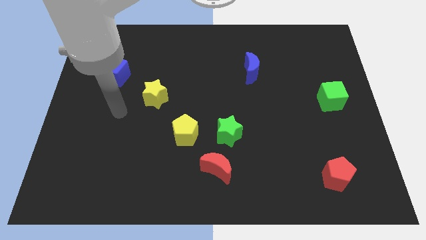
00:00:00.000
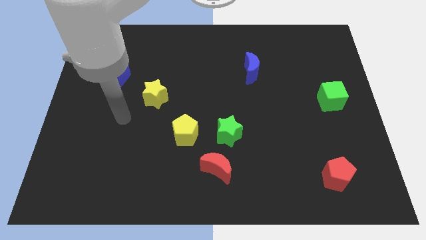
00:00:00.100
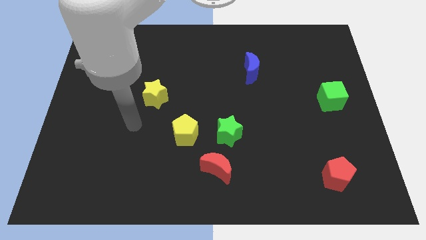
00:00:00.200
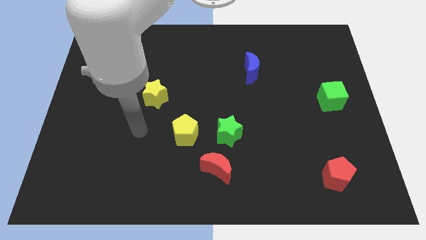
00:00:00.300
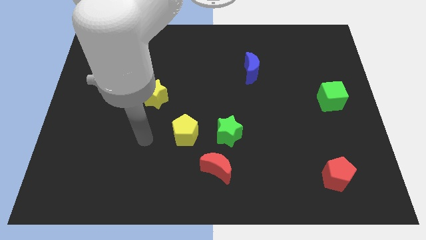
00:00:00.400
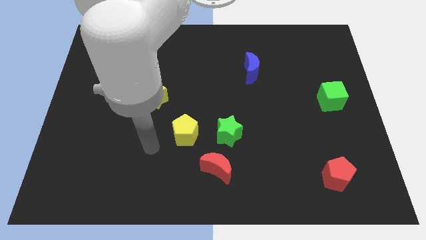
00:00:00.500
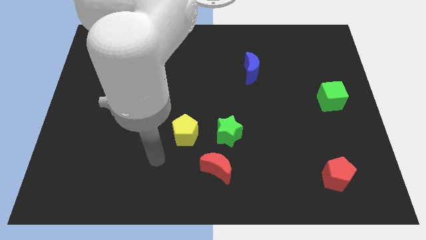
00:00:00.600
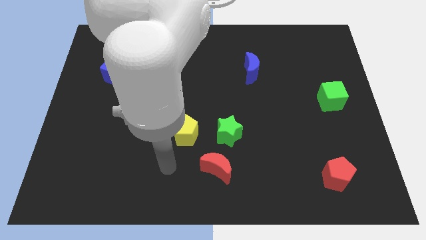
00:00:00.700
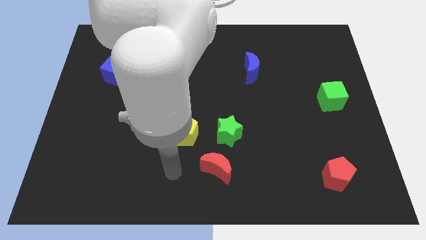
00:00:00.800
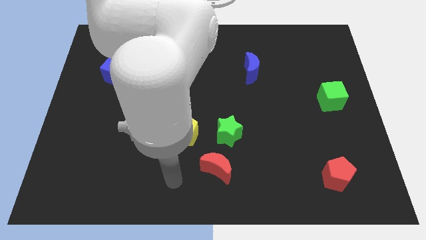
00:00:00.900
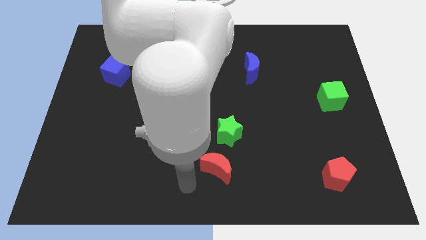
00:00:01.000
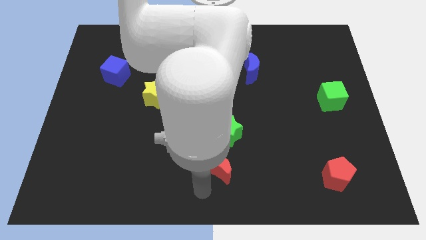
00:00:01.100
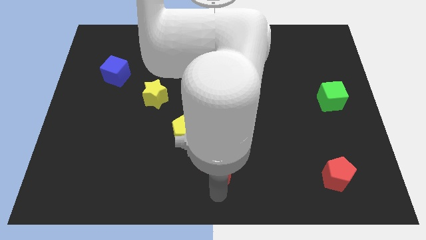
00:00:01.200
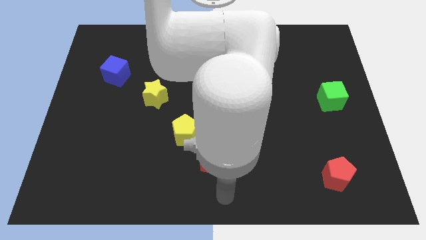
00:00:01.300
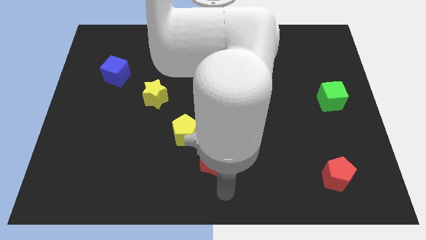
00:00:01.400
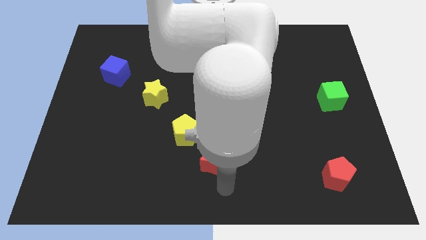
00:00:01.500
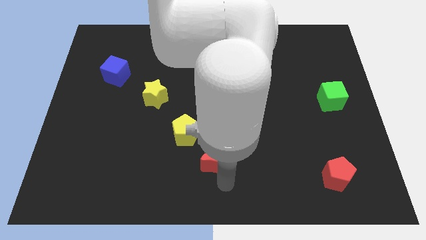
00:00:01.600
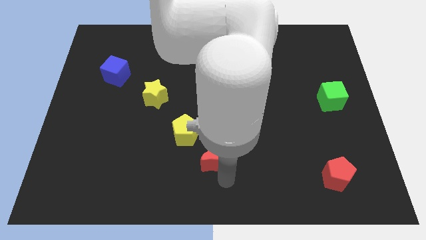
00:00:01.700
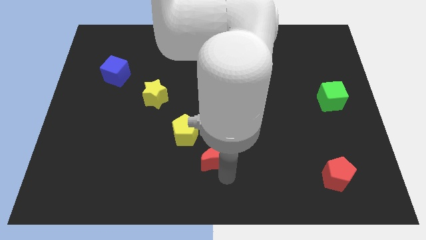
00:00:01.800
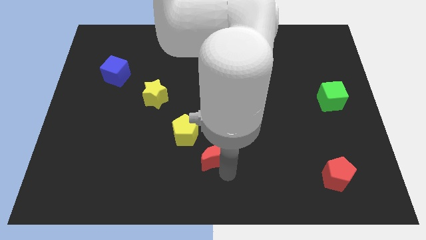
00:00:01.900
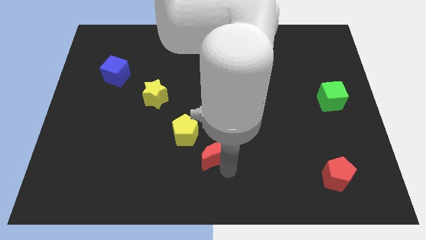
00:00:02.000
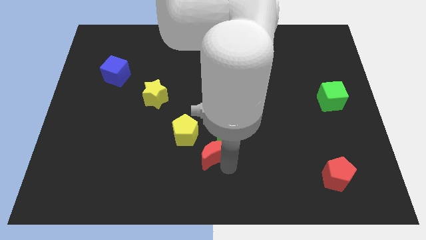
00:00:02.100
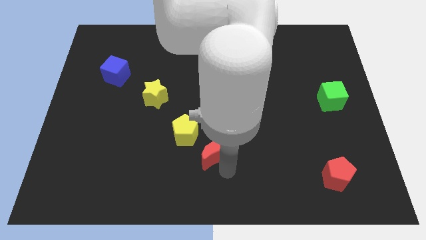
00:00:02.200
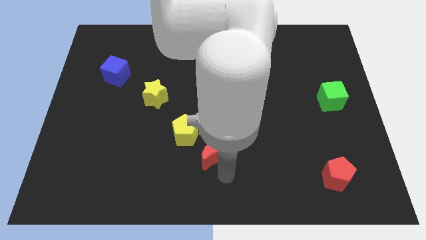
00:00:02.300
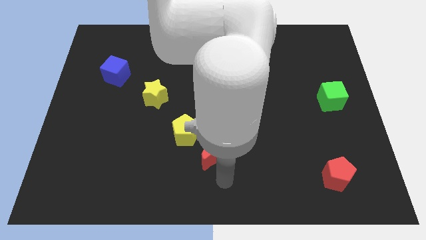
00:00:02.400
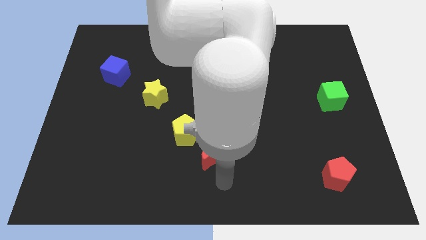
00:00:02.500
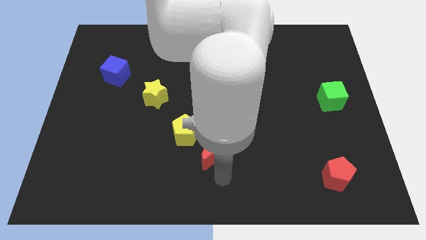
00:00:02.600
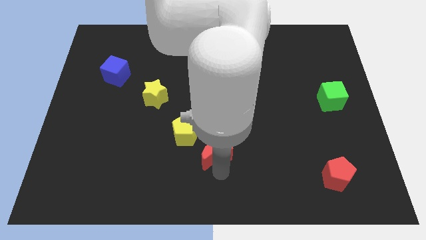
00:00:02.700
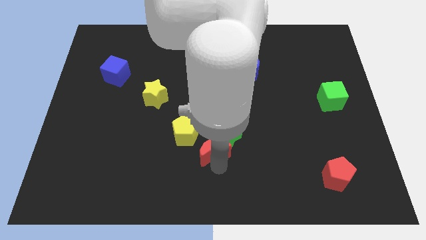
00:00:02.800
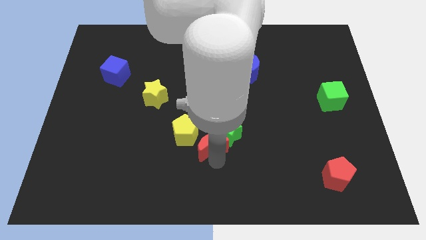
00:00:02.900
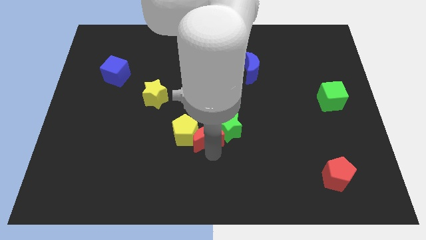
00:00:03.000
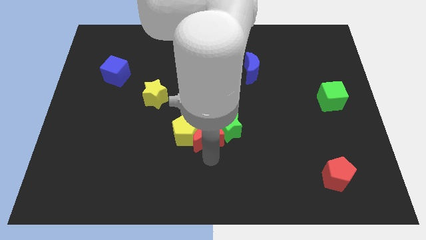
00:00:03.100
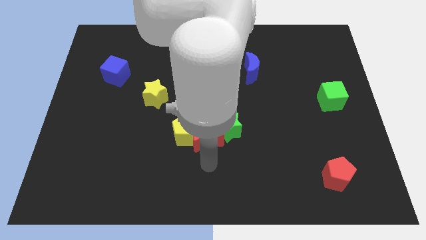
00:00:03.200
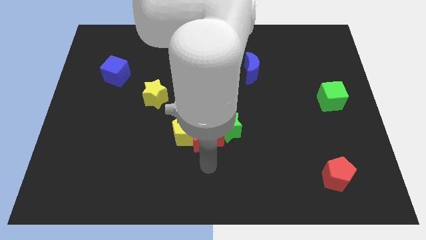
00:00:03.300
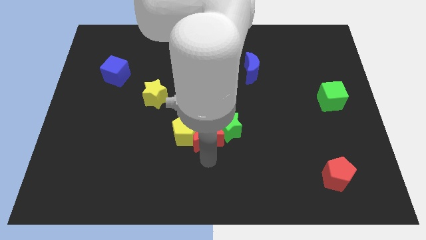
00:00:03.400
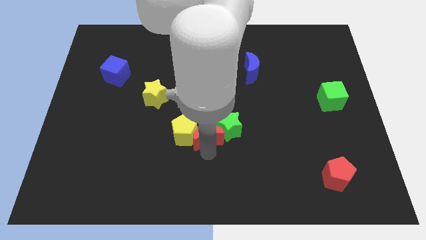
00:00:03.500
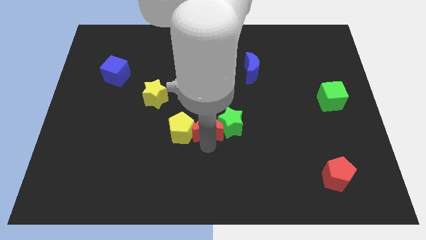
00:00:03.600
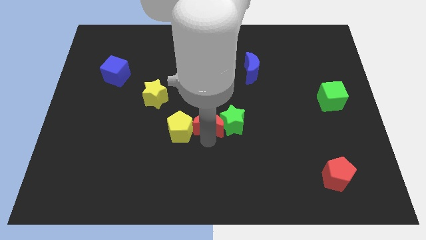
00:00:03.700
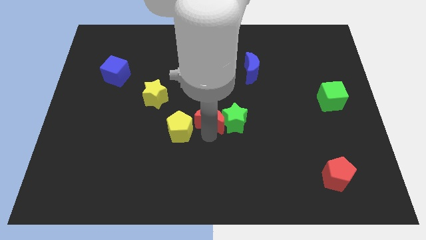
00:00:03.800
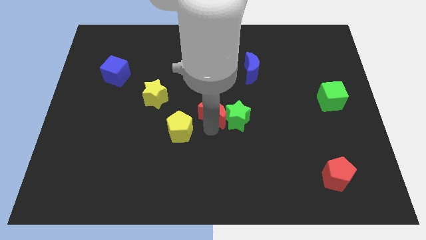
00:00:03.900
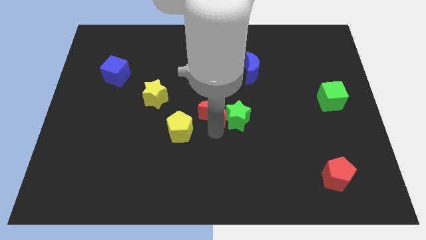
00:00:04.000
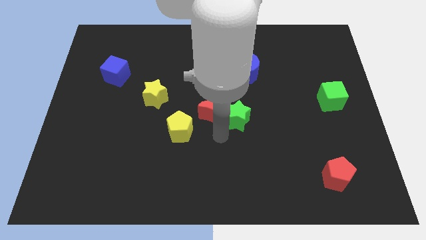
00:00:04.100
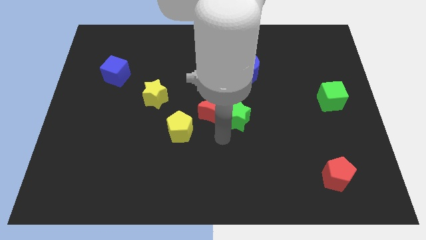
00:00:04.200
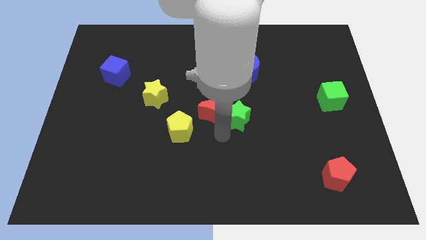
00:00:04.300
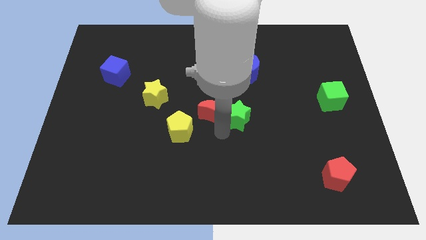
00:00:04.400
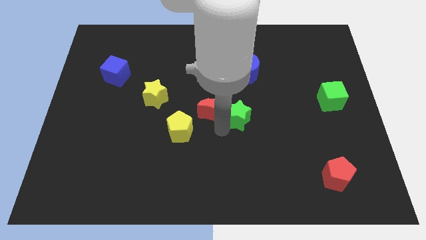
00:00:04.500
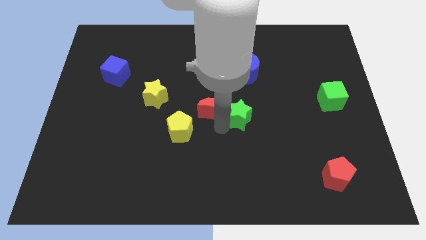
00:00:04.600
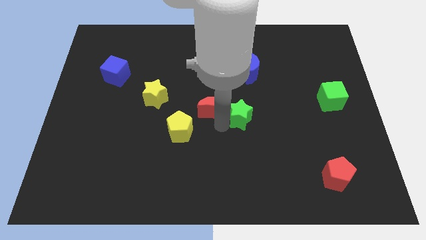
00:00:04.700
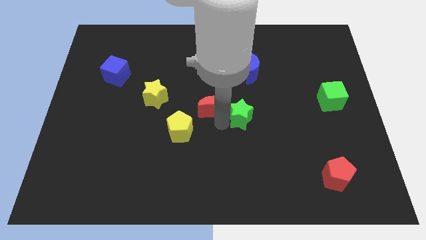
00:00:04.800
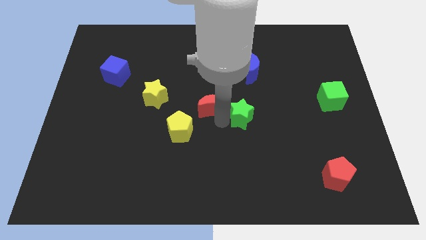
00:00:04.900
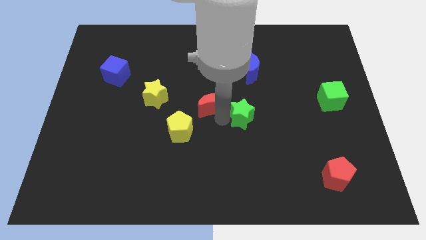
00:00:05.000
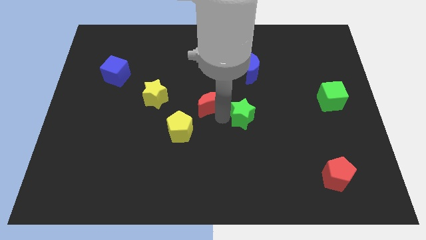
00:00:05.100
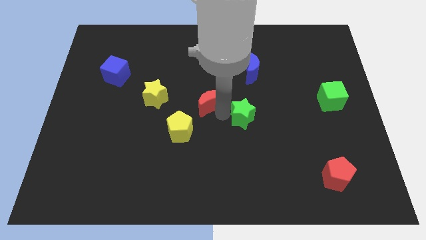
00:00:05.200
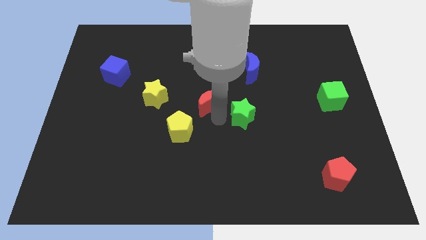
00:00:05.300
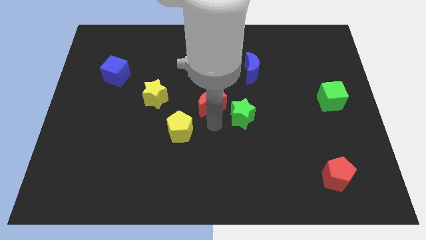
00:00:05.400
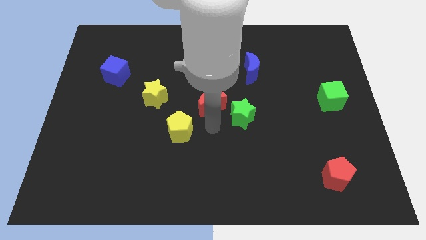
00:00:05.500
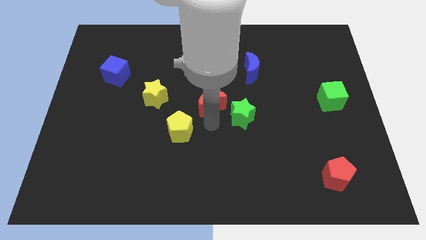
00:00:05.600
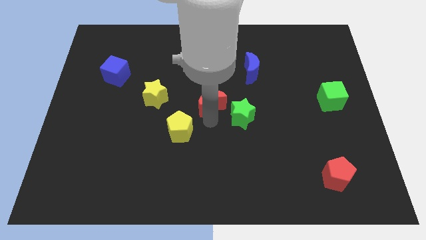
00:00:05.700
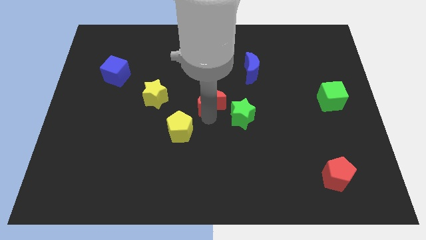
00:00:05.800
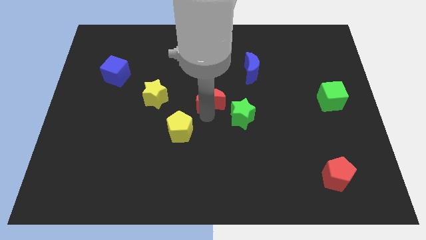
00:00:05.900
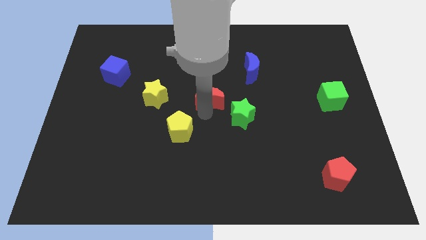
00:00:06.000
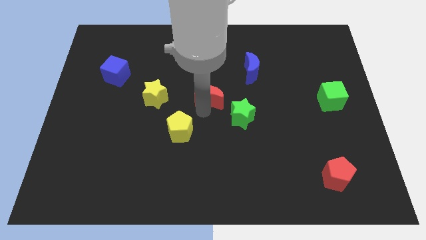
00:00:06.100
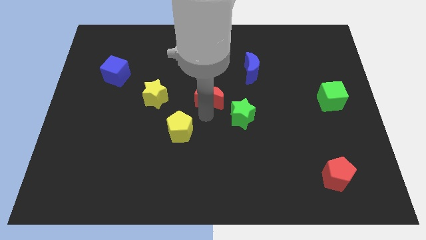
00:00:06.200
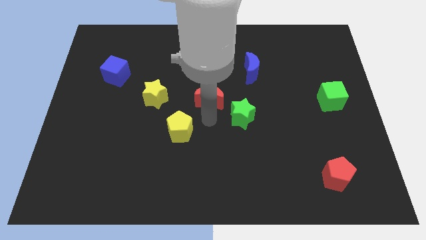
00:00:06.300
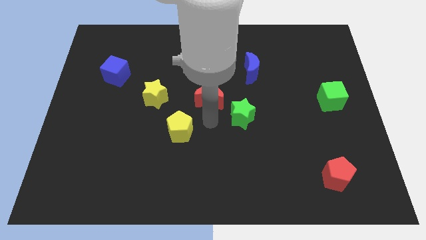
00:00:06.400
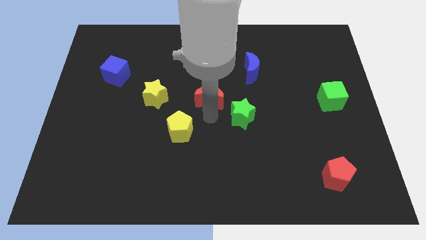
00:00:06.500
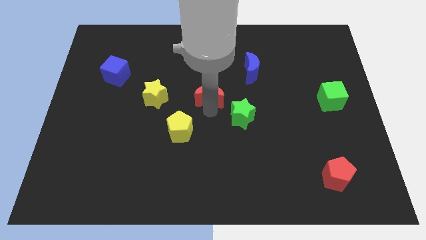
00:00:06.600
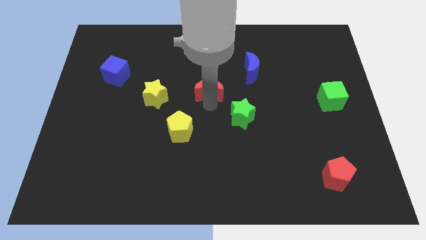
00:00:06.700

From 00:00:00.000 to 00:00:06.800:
push the red moon upwards

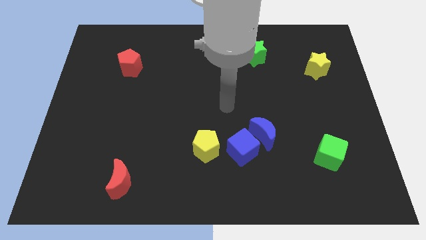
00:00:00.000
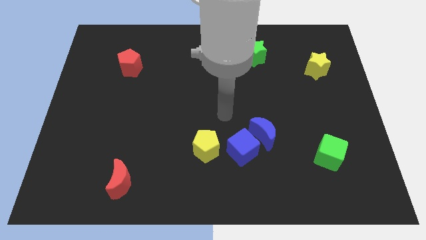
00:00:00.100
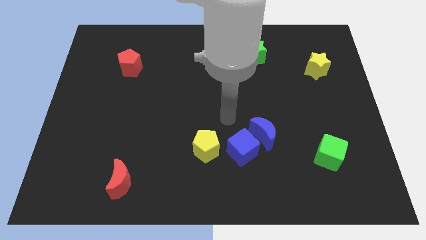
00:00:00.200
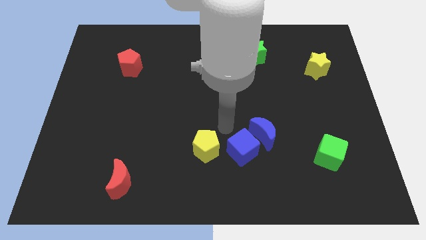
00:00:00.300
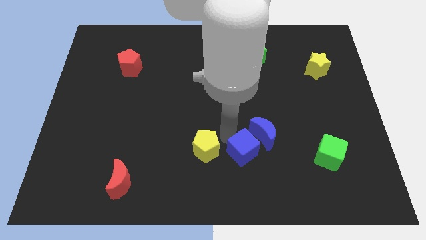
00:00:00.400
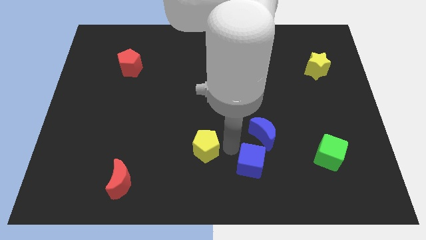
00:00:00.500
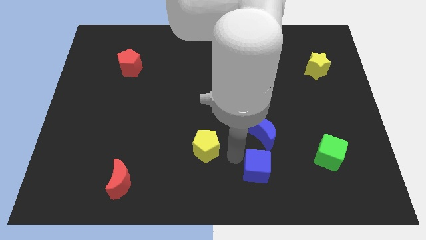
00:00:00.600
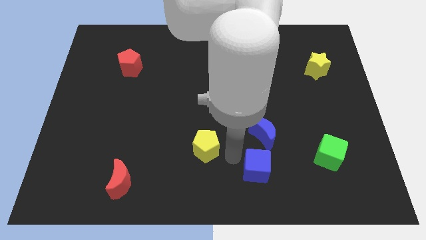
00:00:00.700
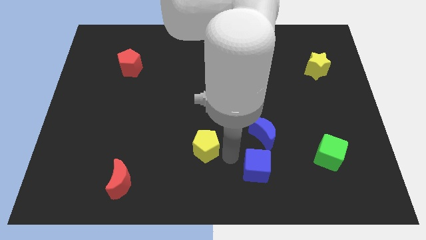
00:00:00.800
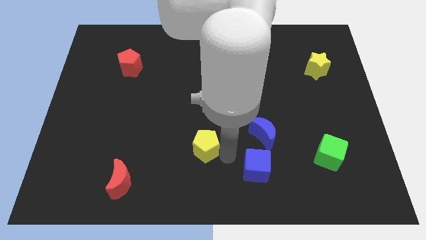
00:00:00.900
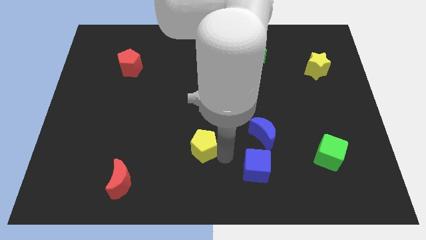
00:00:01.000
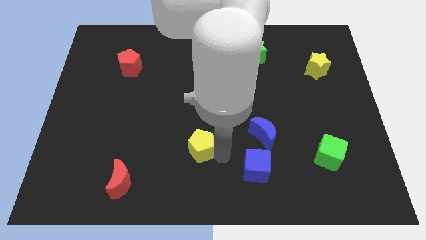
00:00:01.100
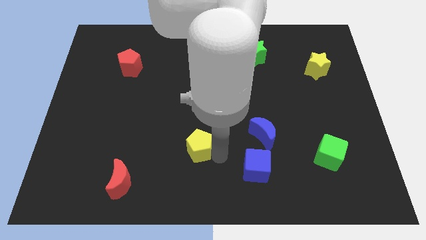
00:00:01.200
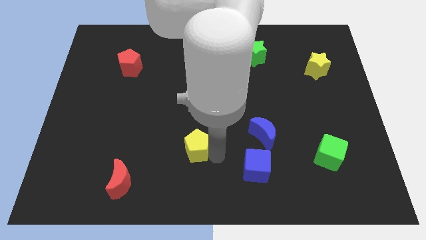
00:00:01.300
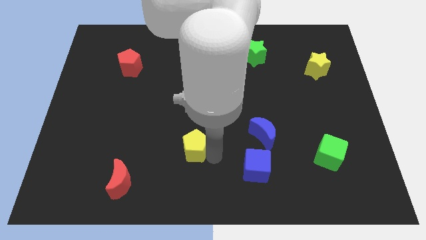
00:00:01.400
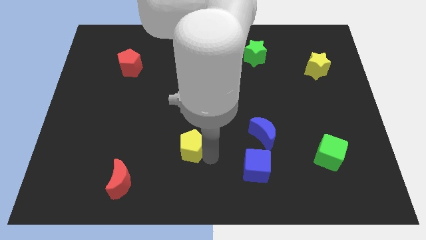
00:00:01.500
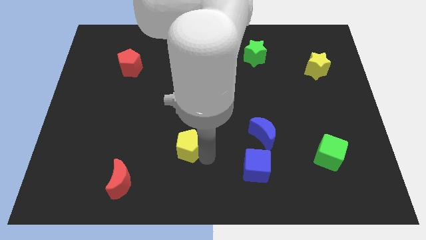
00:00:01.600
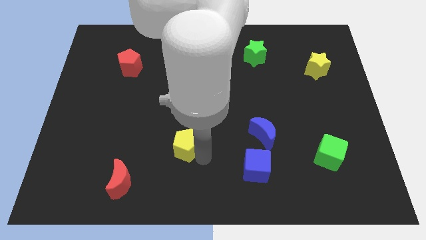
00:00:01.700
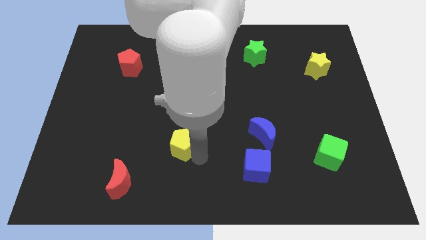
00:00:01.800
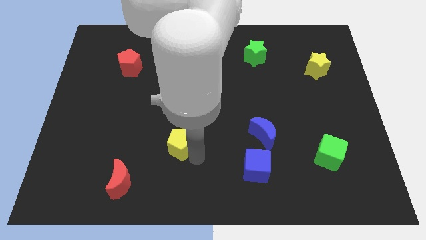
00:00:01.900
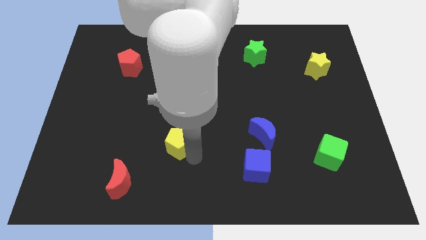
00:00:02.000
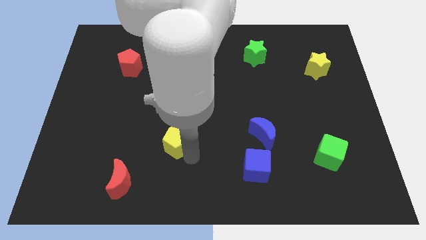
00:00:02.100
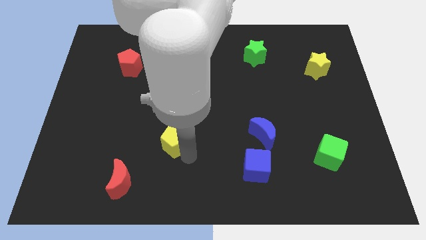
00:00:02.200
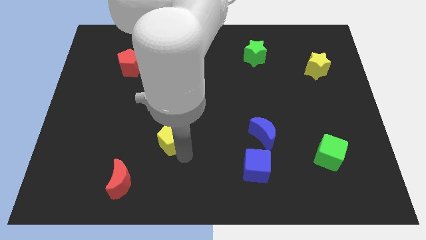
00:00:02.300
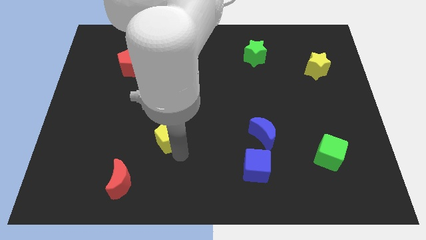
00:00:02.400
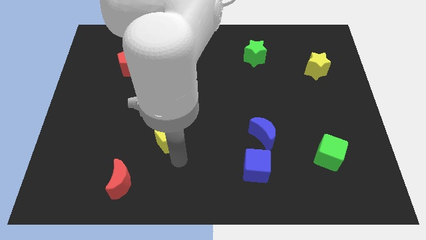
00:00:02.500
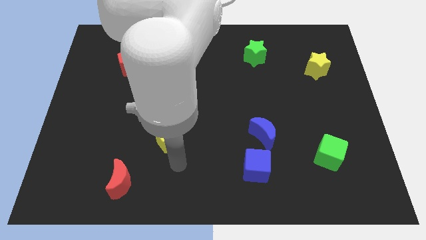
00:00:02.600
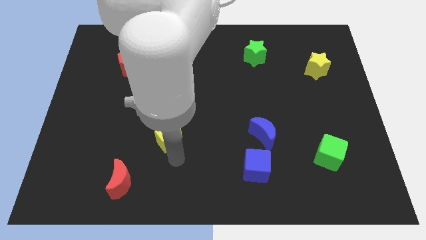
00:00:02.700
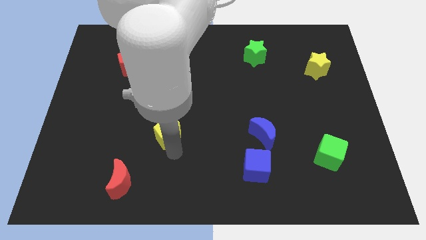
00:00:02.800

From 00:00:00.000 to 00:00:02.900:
slide the yellow pentagon slightly upwards and left
